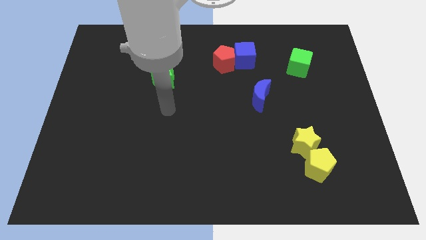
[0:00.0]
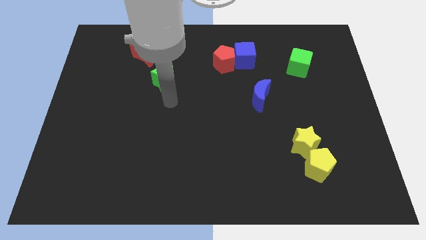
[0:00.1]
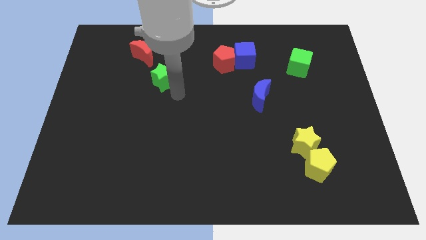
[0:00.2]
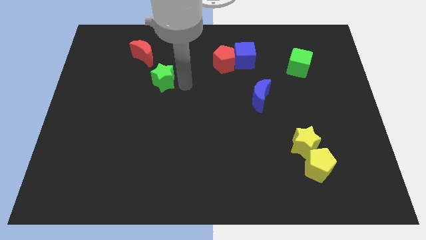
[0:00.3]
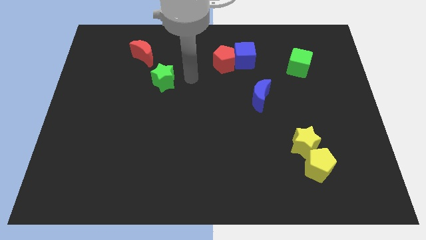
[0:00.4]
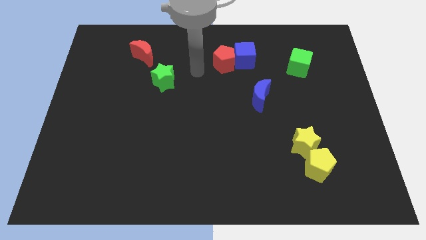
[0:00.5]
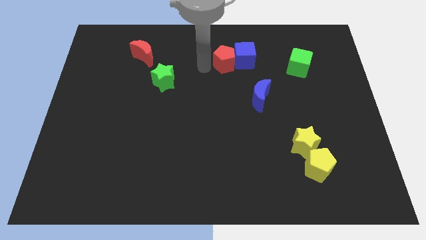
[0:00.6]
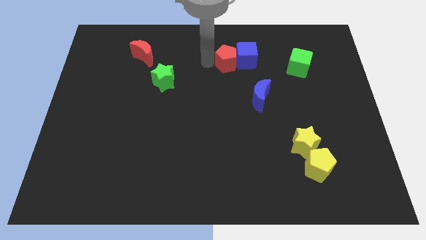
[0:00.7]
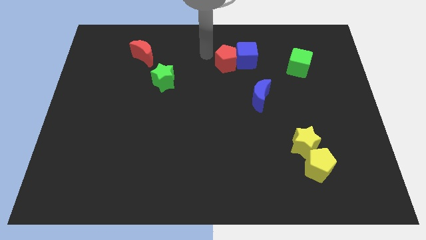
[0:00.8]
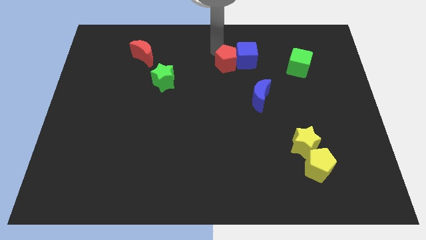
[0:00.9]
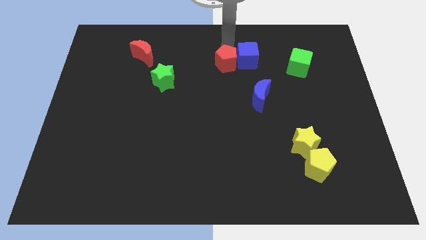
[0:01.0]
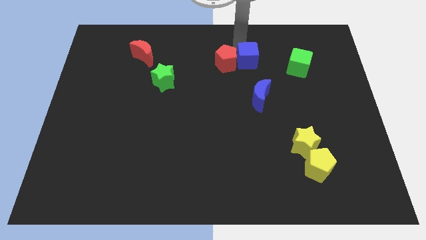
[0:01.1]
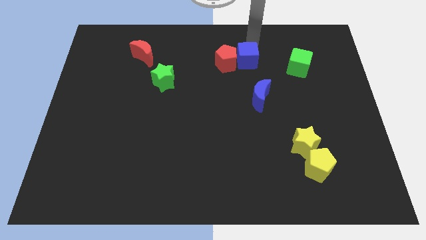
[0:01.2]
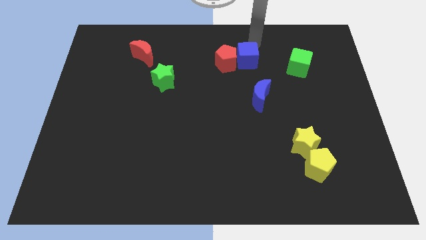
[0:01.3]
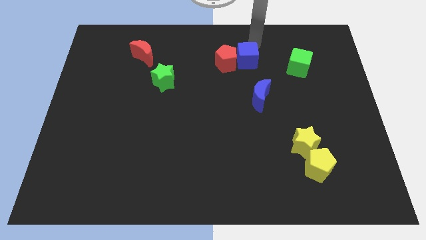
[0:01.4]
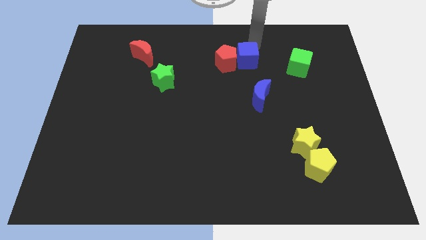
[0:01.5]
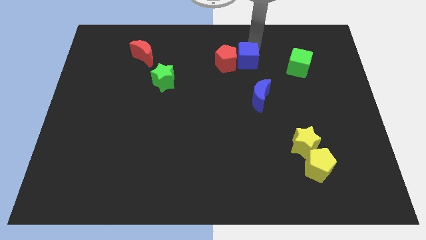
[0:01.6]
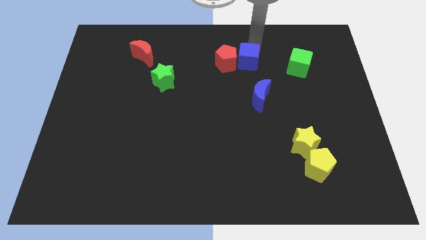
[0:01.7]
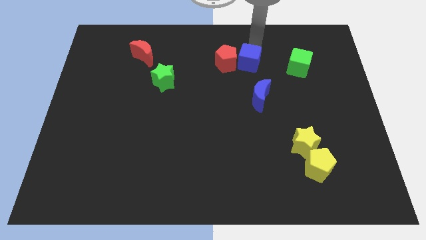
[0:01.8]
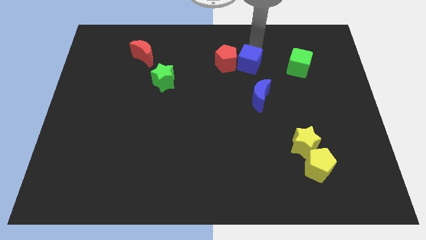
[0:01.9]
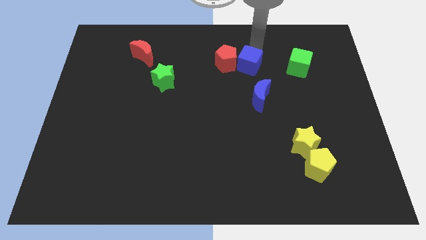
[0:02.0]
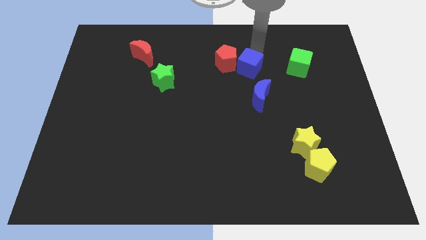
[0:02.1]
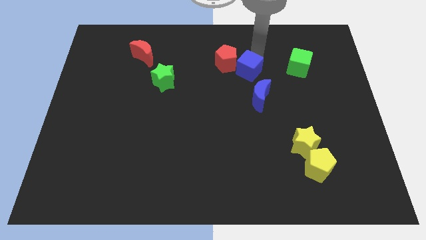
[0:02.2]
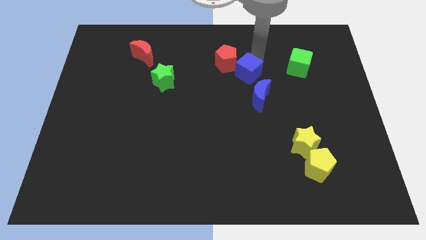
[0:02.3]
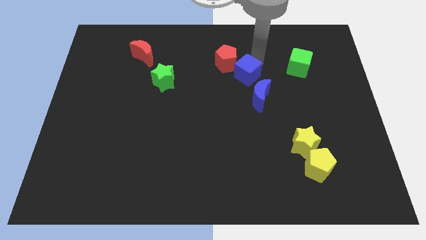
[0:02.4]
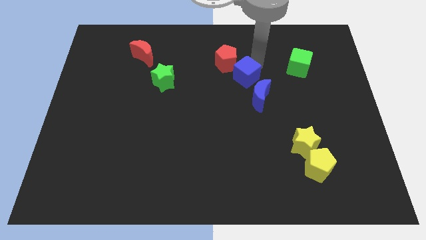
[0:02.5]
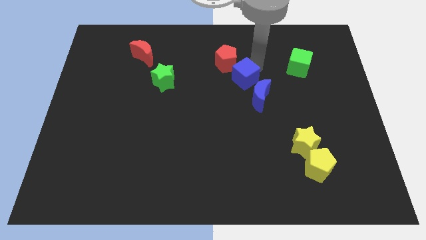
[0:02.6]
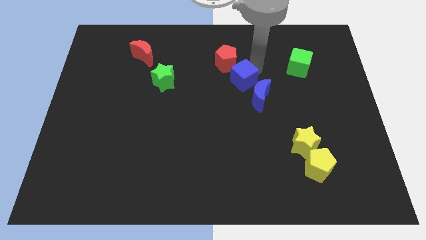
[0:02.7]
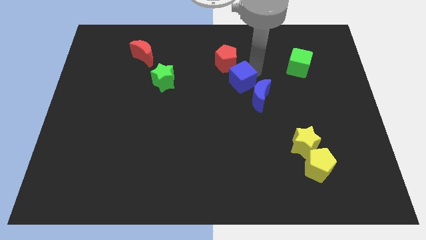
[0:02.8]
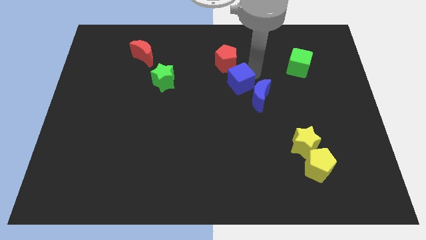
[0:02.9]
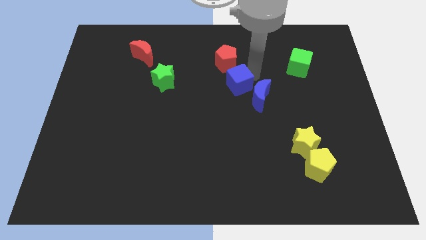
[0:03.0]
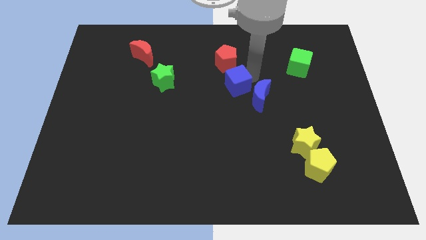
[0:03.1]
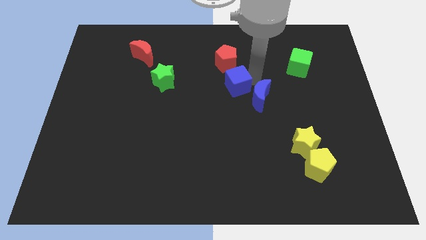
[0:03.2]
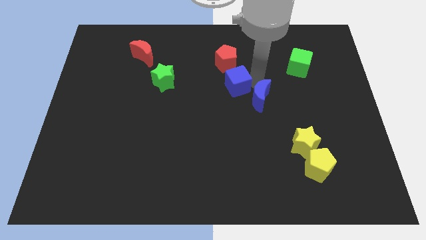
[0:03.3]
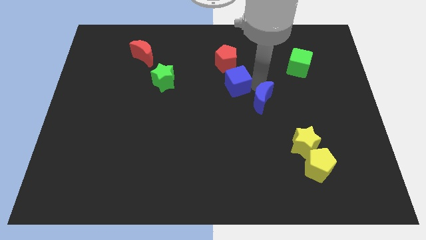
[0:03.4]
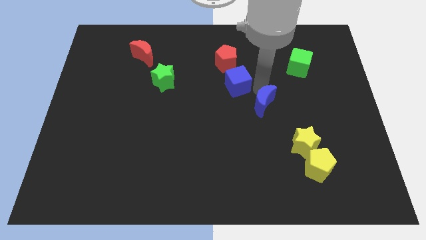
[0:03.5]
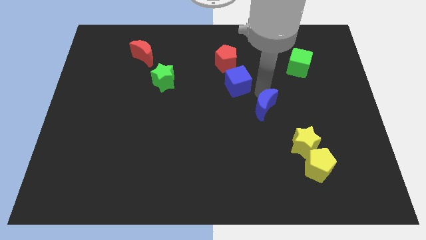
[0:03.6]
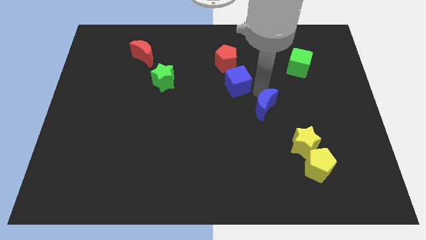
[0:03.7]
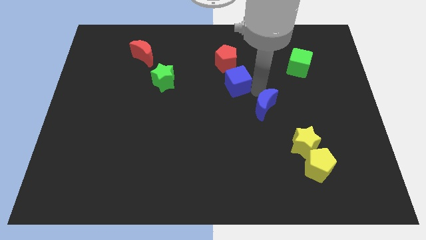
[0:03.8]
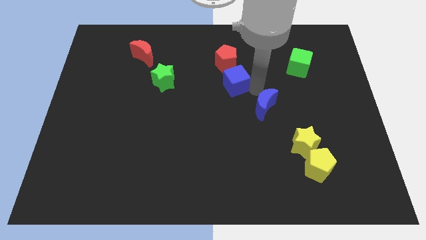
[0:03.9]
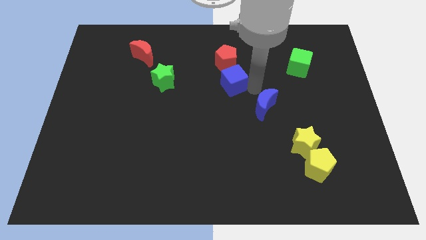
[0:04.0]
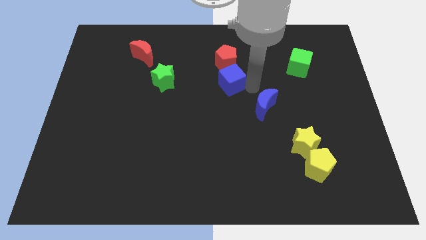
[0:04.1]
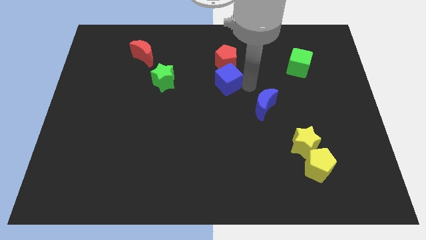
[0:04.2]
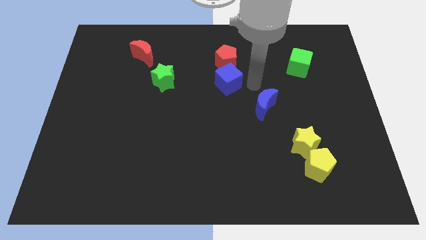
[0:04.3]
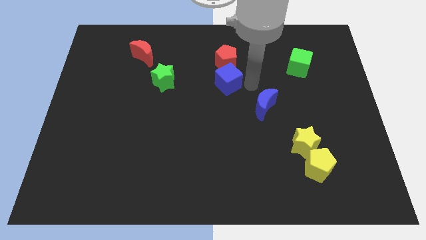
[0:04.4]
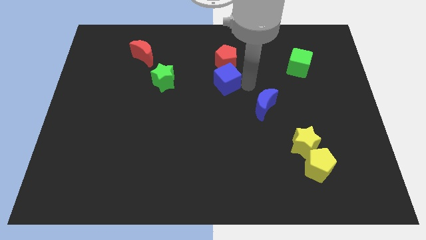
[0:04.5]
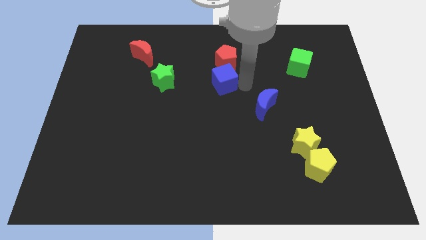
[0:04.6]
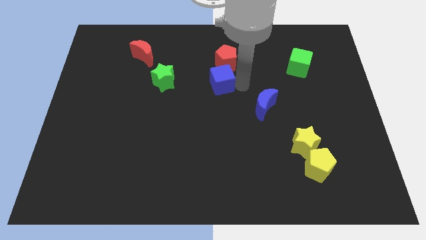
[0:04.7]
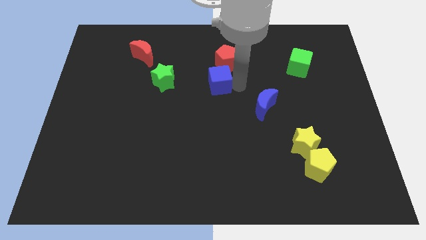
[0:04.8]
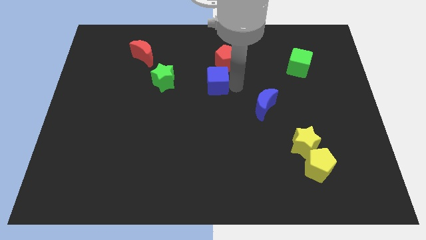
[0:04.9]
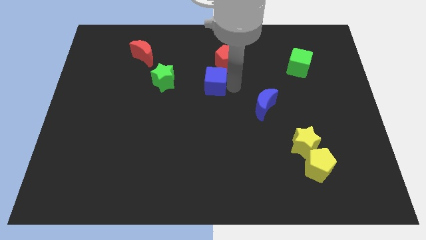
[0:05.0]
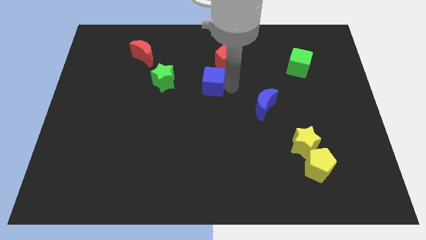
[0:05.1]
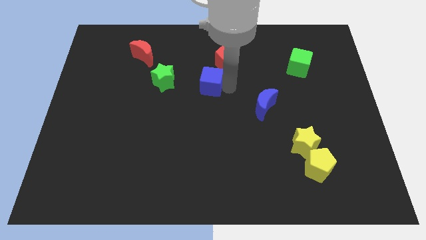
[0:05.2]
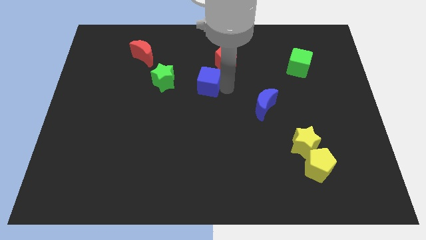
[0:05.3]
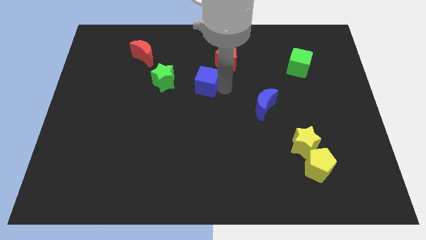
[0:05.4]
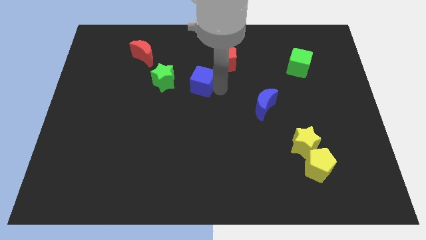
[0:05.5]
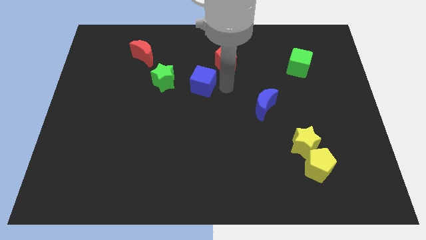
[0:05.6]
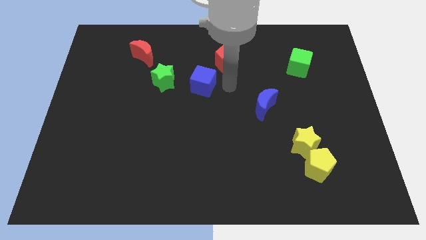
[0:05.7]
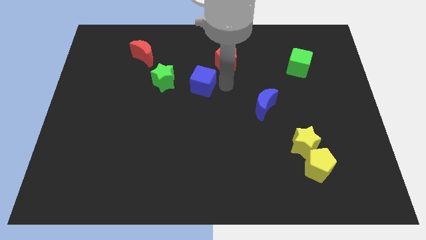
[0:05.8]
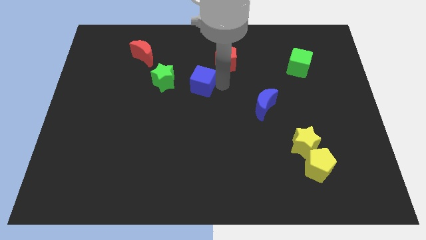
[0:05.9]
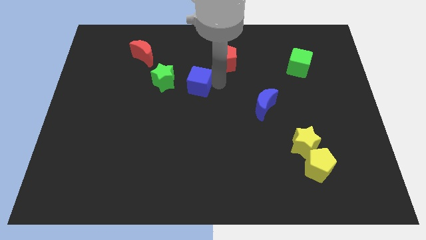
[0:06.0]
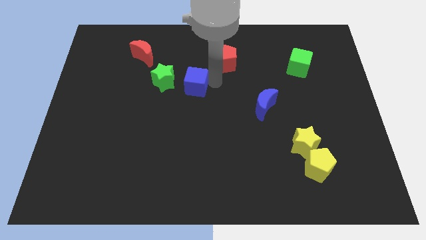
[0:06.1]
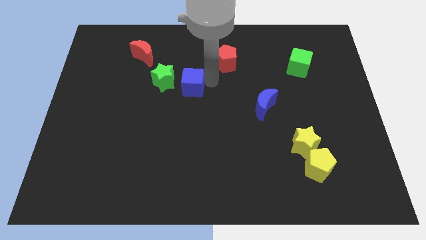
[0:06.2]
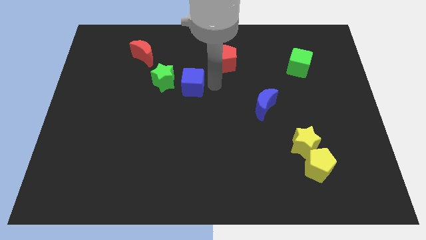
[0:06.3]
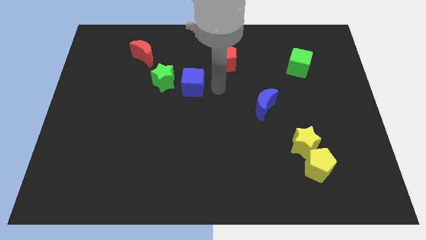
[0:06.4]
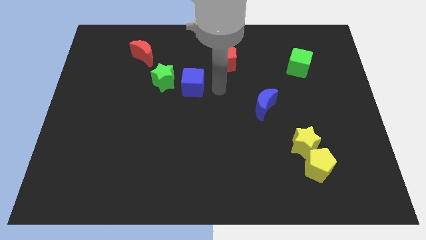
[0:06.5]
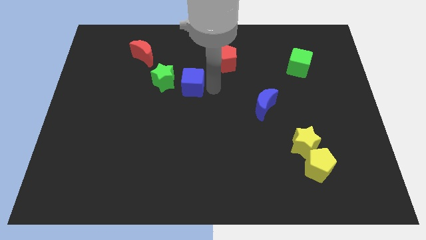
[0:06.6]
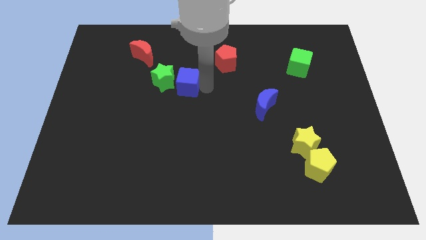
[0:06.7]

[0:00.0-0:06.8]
move the blue cube to the green star

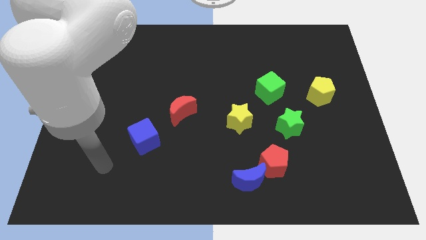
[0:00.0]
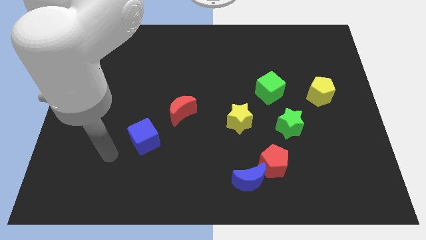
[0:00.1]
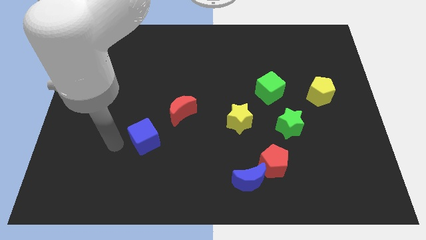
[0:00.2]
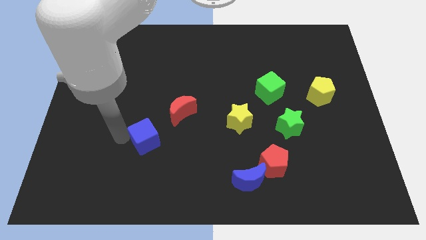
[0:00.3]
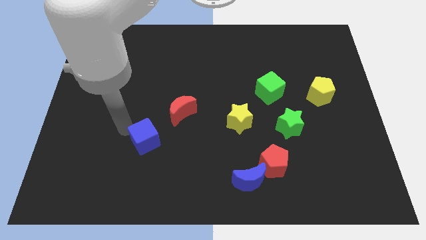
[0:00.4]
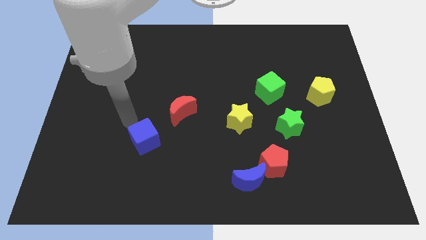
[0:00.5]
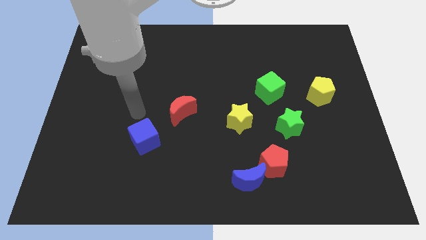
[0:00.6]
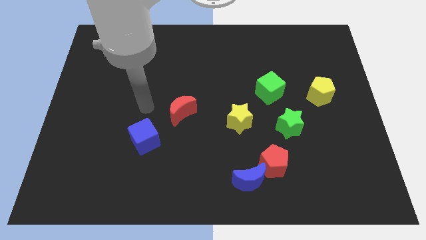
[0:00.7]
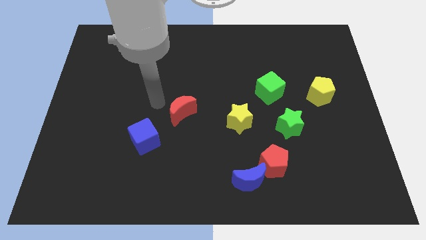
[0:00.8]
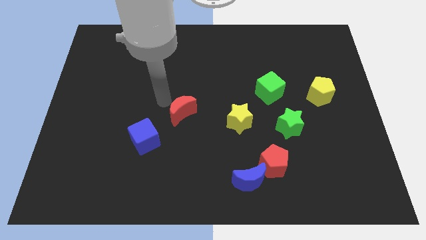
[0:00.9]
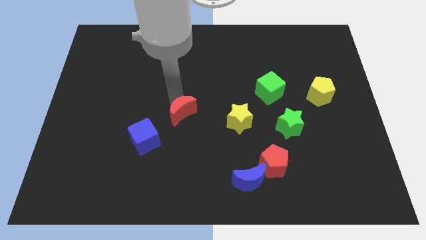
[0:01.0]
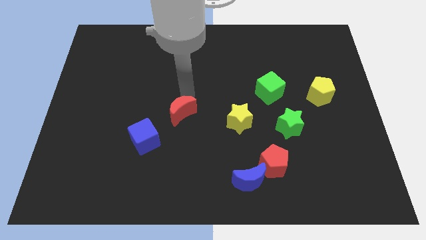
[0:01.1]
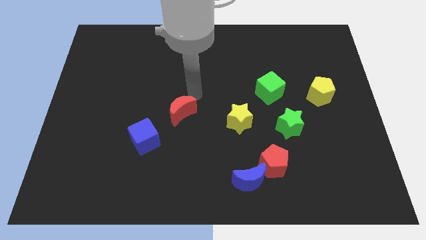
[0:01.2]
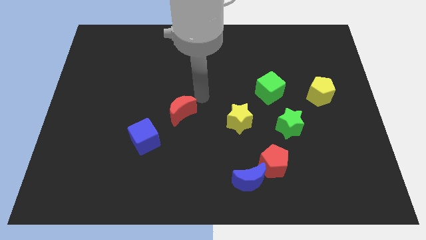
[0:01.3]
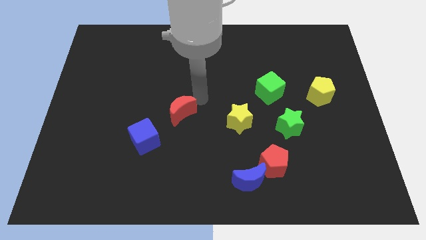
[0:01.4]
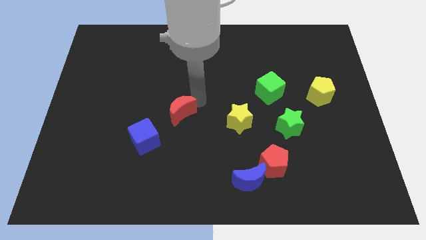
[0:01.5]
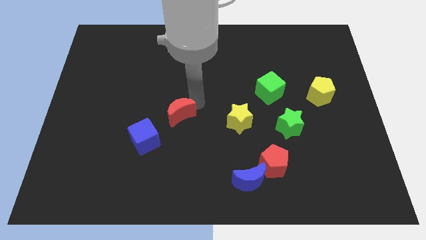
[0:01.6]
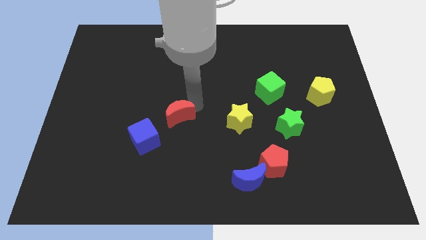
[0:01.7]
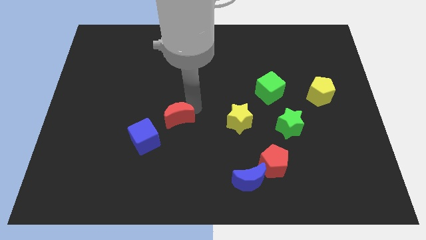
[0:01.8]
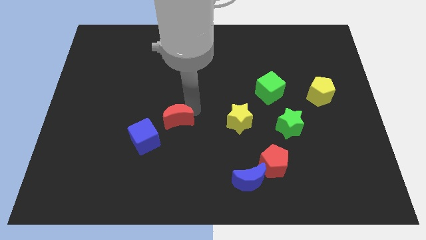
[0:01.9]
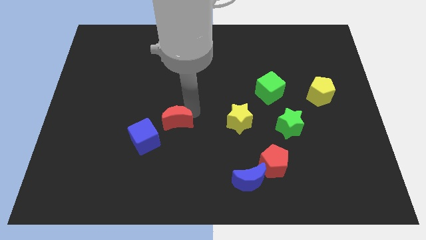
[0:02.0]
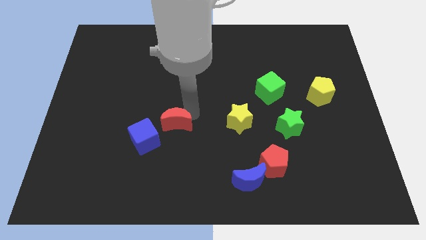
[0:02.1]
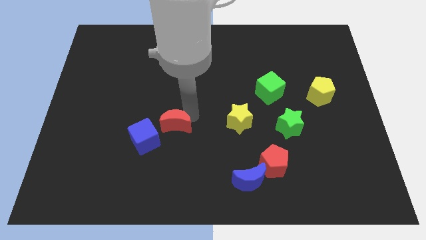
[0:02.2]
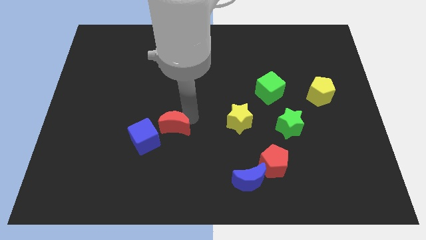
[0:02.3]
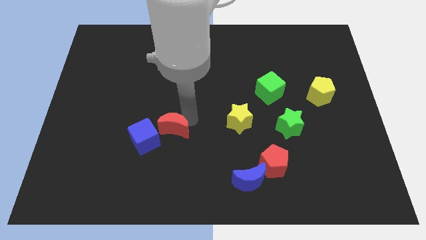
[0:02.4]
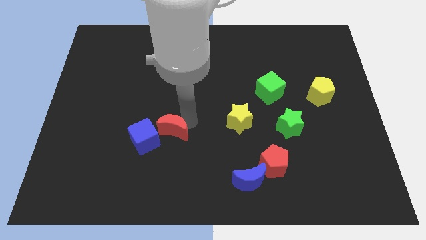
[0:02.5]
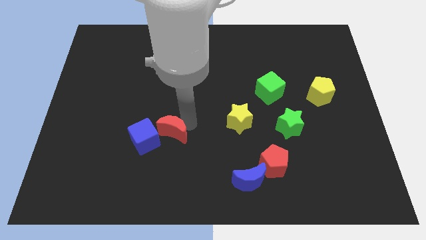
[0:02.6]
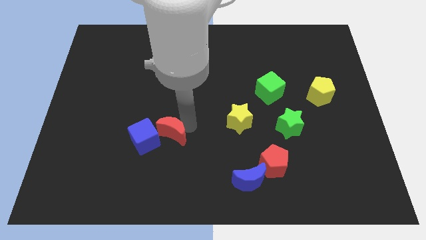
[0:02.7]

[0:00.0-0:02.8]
move the red moon towards the blue cube
